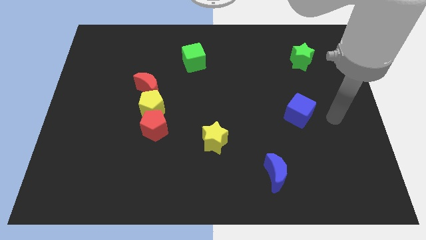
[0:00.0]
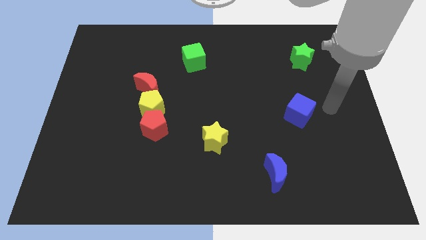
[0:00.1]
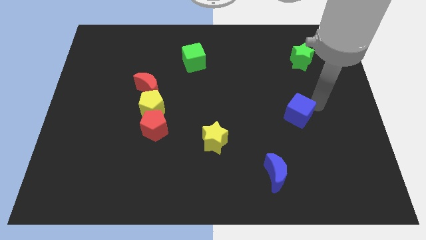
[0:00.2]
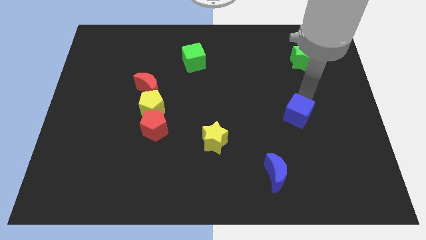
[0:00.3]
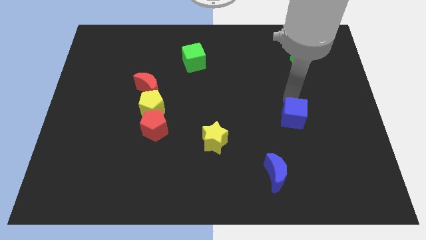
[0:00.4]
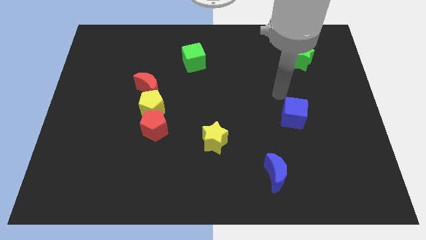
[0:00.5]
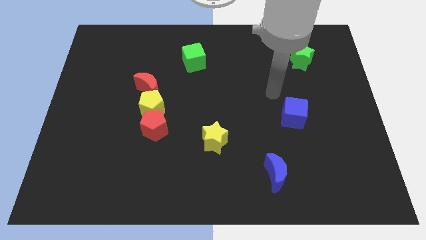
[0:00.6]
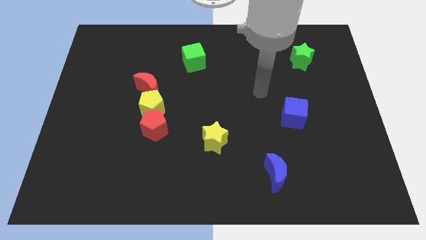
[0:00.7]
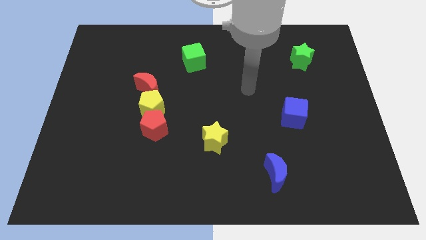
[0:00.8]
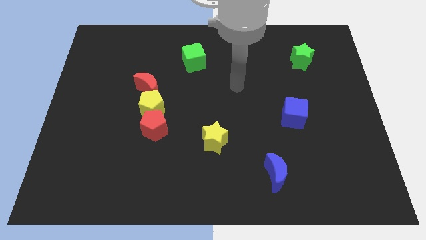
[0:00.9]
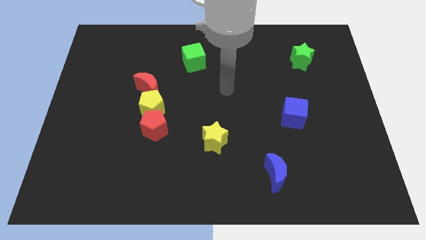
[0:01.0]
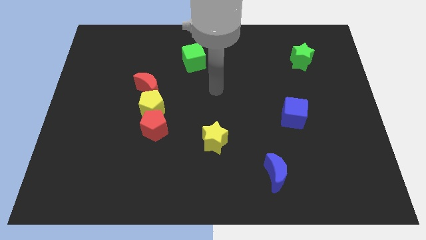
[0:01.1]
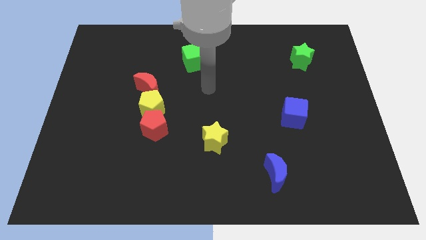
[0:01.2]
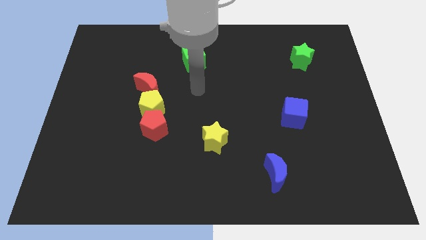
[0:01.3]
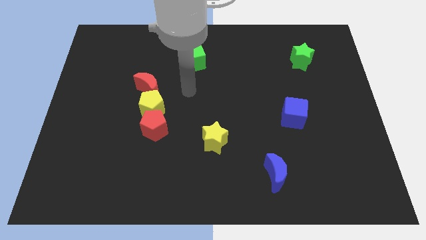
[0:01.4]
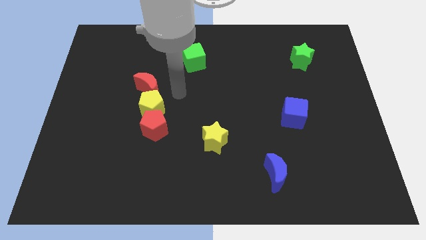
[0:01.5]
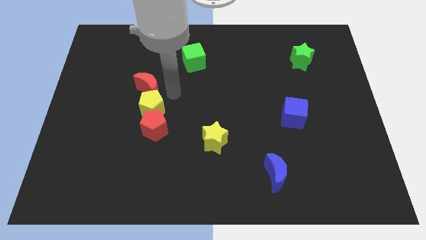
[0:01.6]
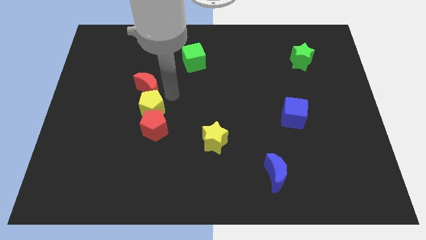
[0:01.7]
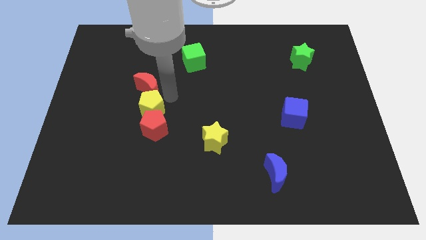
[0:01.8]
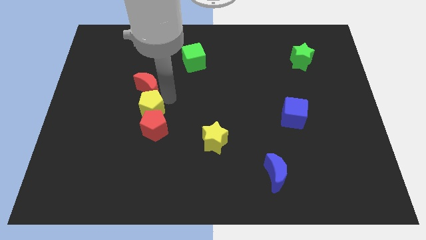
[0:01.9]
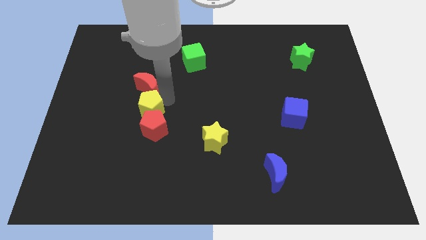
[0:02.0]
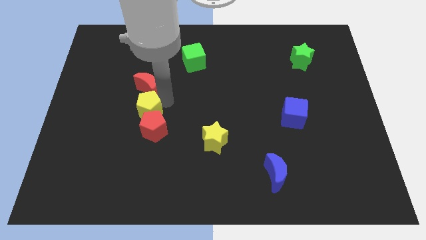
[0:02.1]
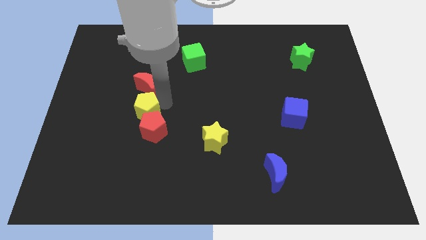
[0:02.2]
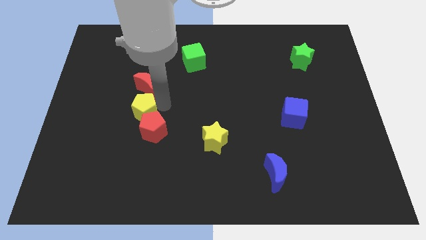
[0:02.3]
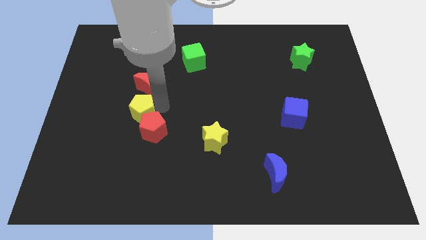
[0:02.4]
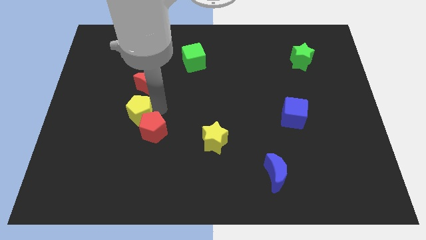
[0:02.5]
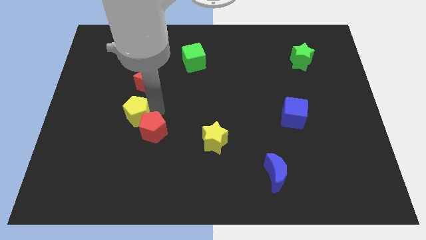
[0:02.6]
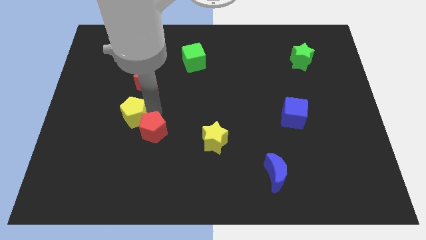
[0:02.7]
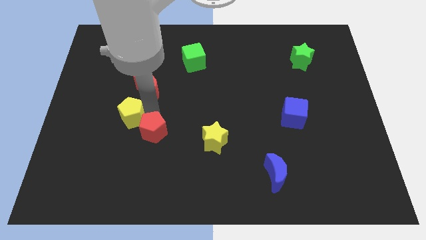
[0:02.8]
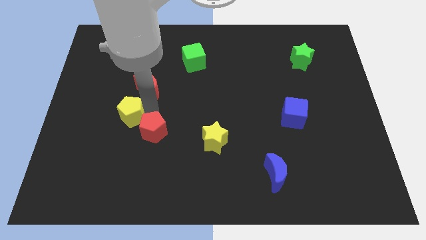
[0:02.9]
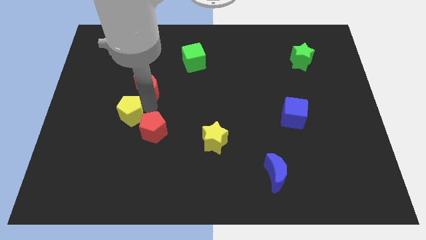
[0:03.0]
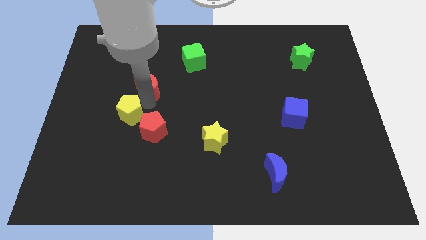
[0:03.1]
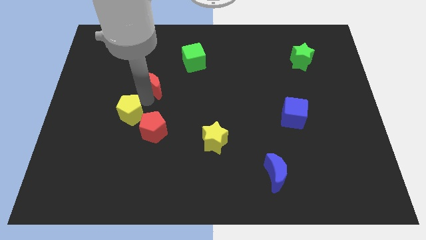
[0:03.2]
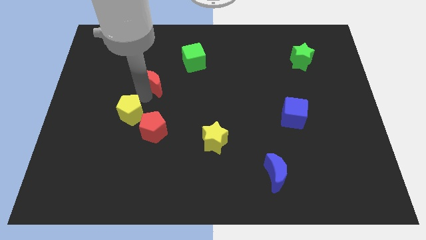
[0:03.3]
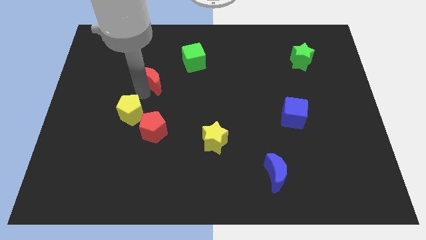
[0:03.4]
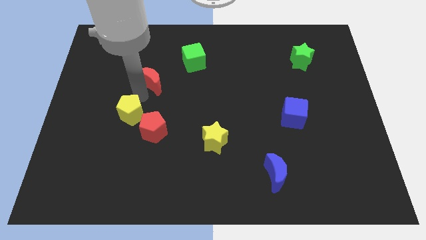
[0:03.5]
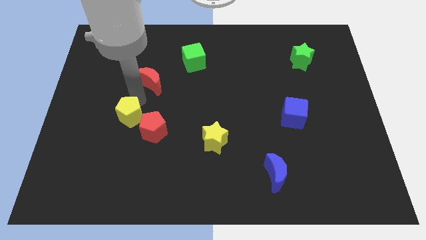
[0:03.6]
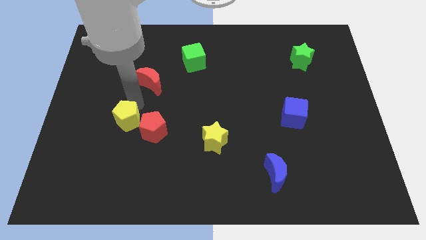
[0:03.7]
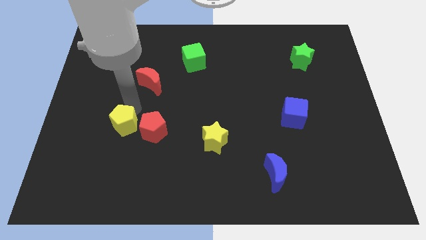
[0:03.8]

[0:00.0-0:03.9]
move the yellow pentagon down and left diagonally a little

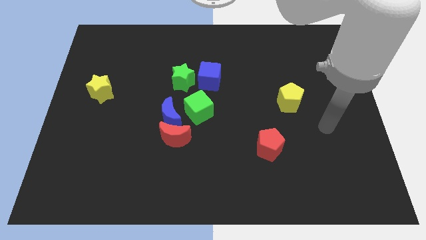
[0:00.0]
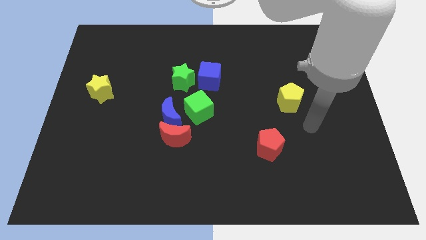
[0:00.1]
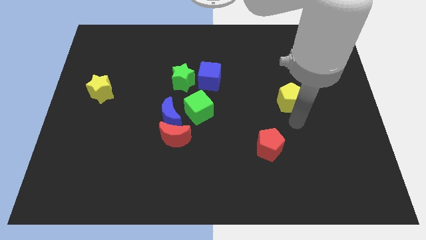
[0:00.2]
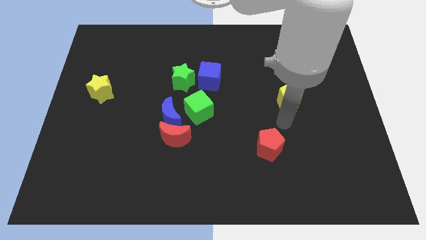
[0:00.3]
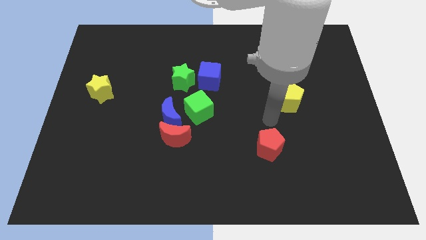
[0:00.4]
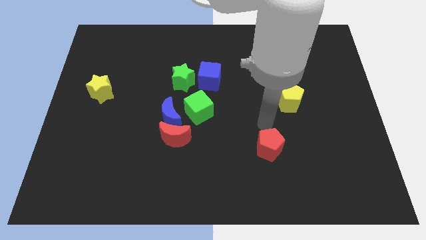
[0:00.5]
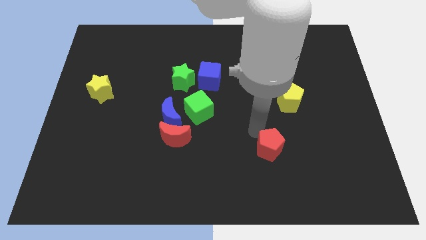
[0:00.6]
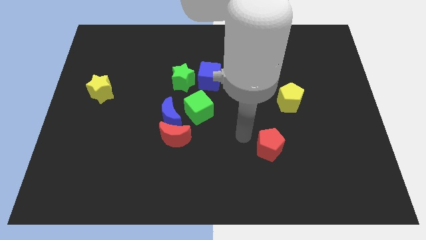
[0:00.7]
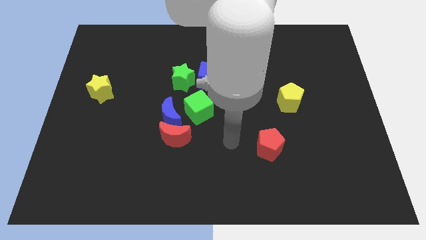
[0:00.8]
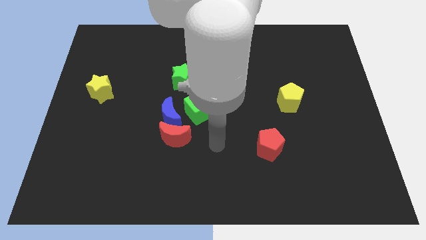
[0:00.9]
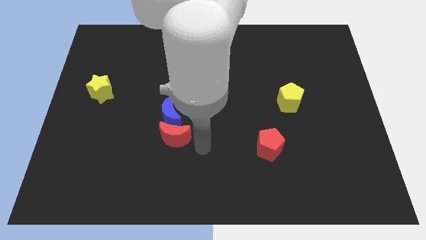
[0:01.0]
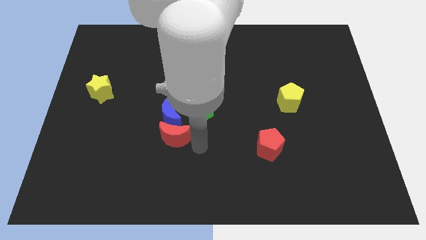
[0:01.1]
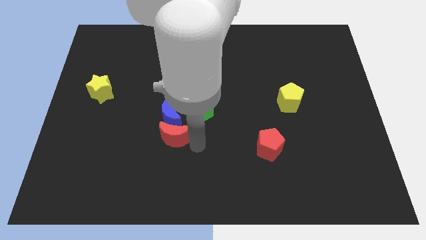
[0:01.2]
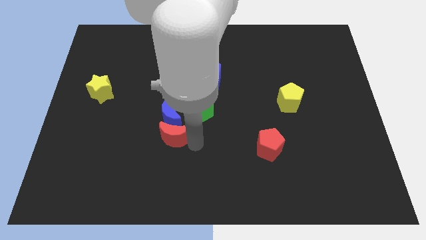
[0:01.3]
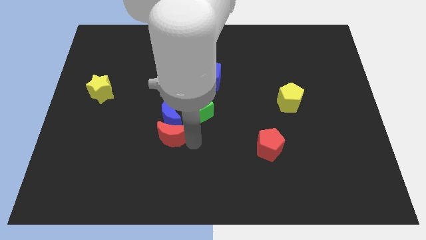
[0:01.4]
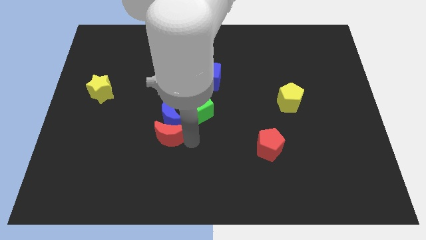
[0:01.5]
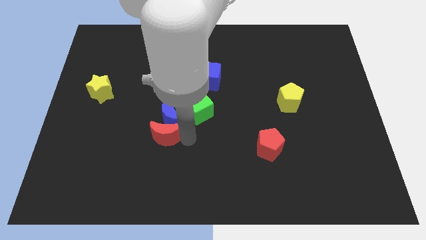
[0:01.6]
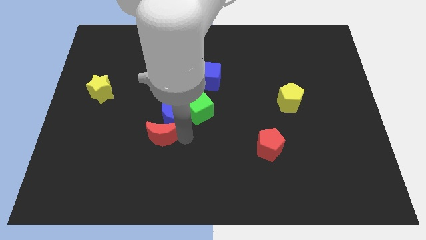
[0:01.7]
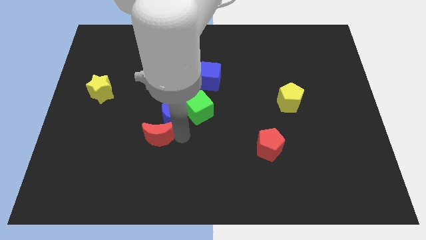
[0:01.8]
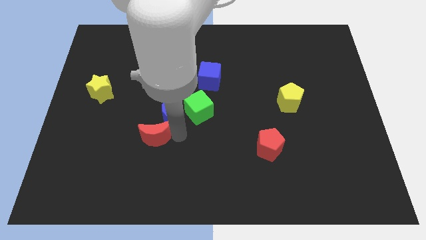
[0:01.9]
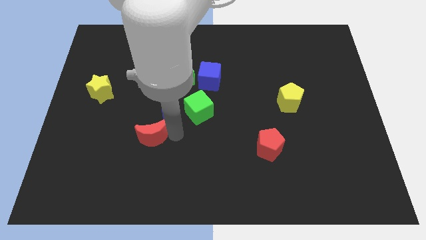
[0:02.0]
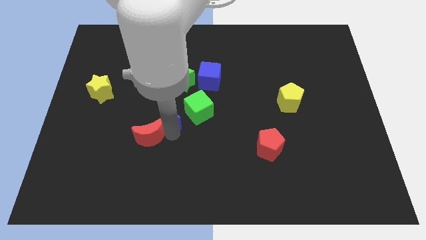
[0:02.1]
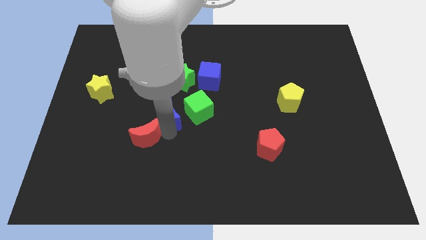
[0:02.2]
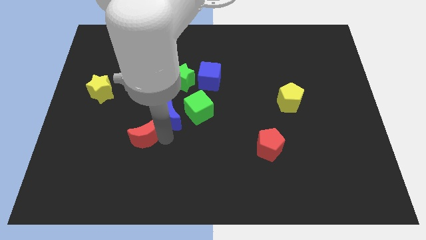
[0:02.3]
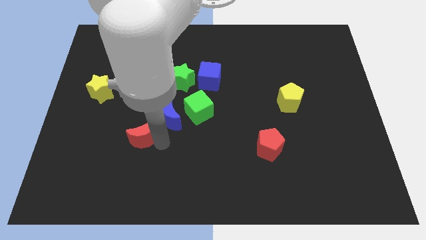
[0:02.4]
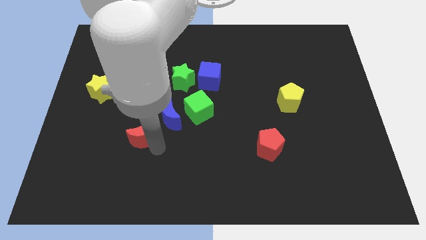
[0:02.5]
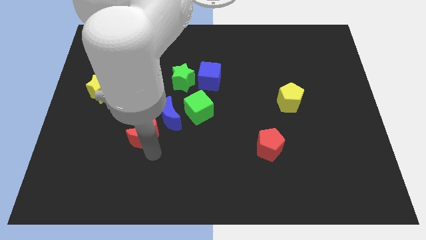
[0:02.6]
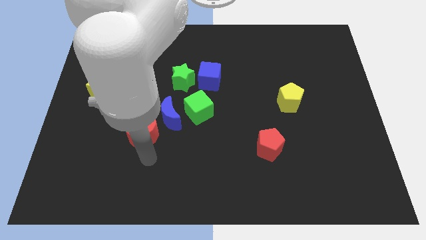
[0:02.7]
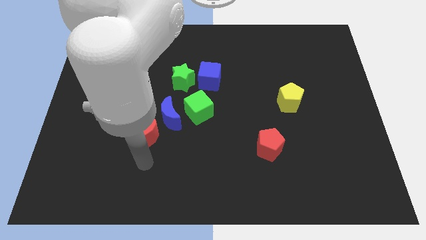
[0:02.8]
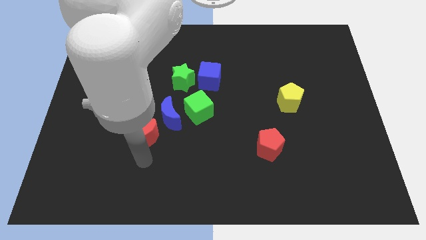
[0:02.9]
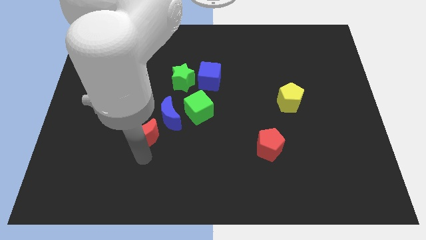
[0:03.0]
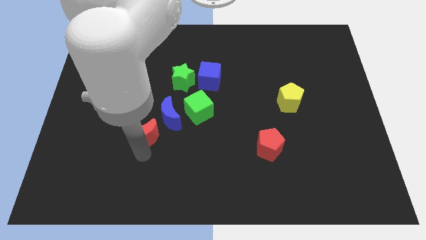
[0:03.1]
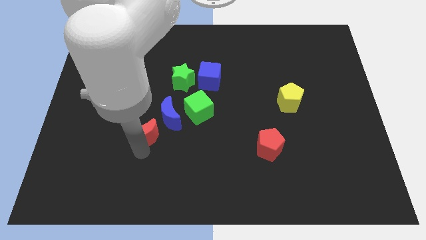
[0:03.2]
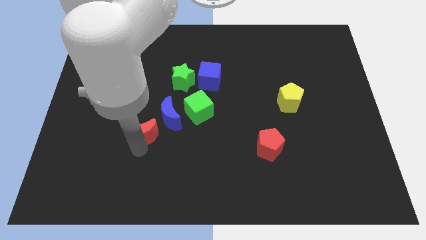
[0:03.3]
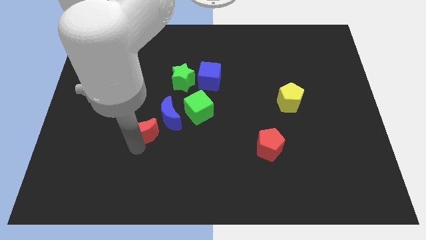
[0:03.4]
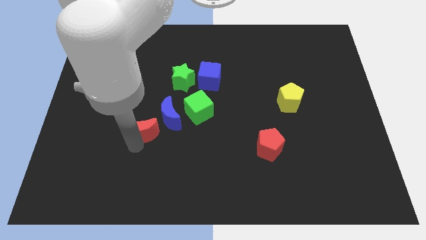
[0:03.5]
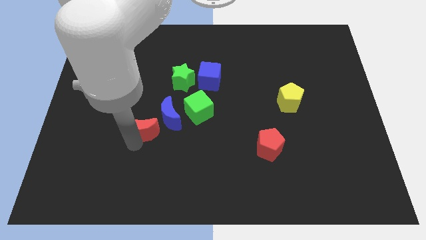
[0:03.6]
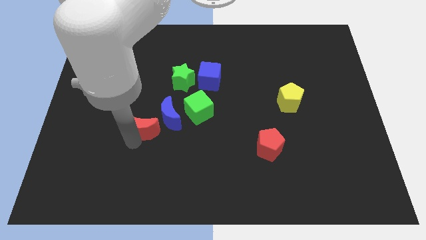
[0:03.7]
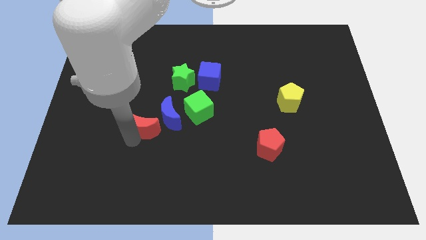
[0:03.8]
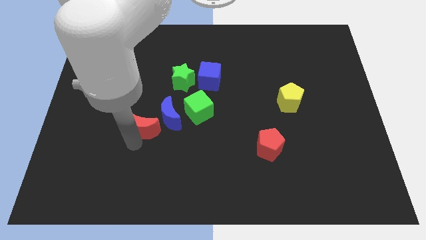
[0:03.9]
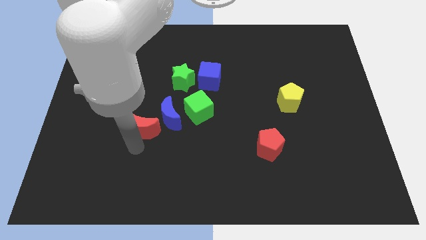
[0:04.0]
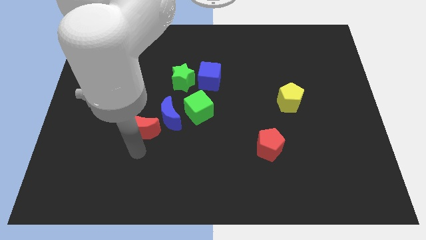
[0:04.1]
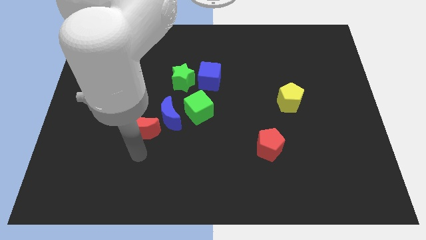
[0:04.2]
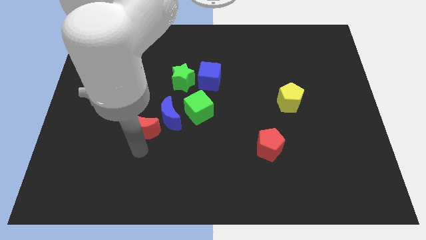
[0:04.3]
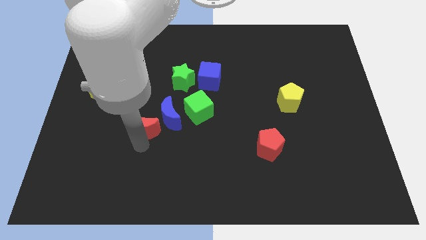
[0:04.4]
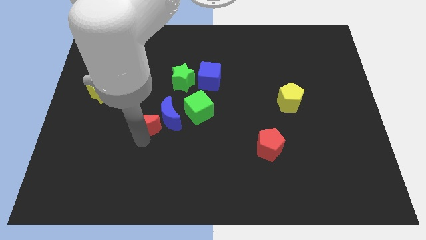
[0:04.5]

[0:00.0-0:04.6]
push the red moon upwards and then to the left a little
